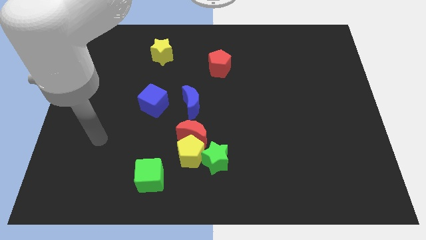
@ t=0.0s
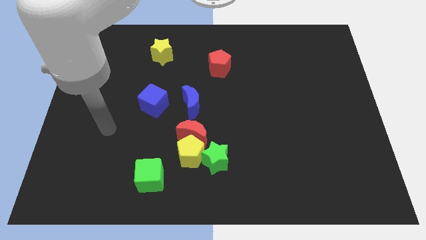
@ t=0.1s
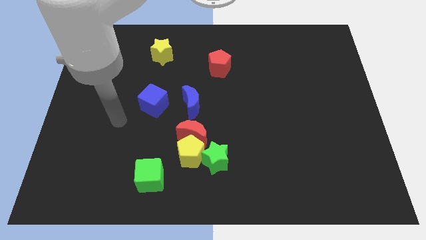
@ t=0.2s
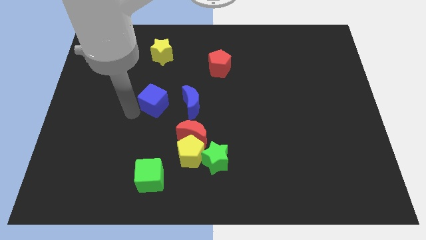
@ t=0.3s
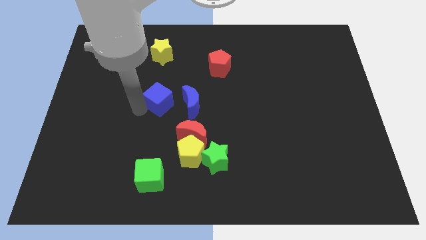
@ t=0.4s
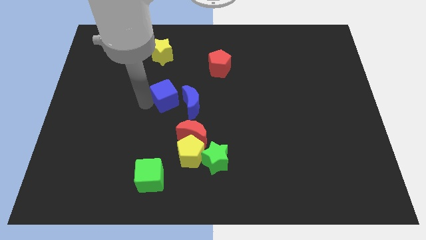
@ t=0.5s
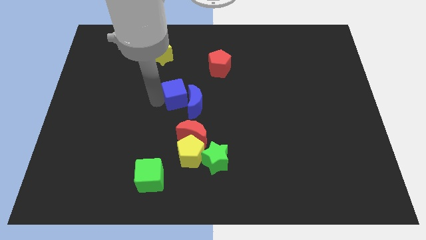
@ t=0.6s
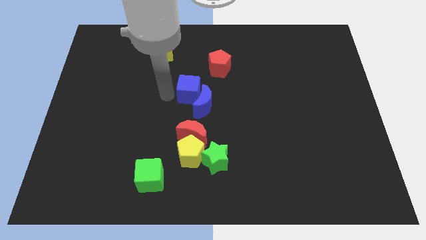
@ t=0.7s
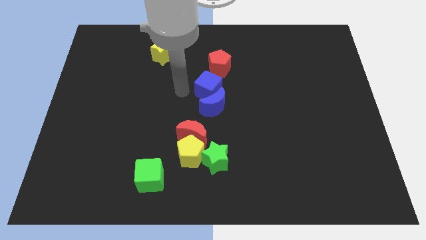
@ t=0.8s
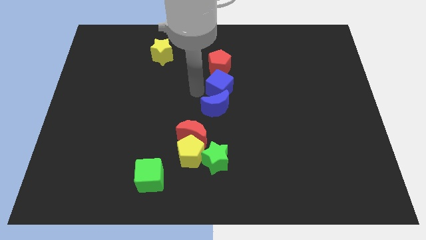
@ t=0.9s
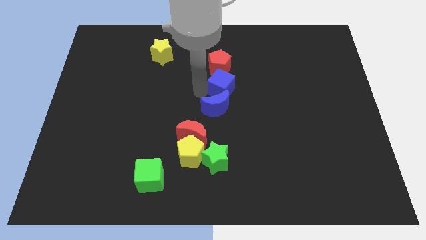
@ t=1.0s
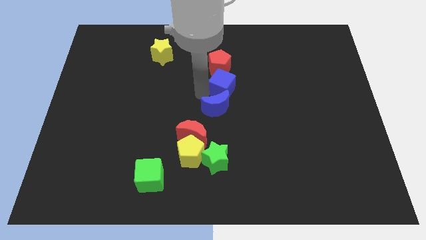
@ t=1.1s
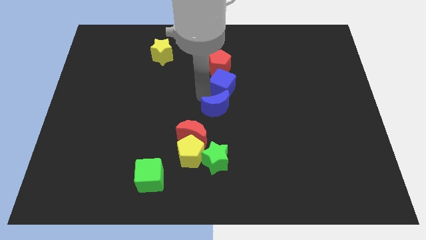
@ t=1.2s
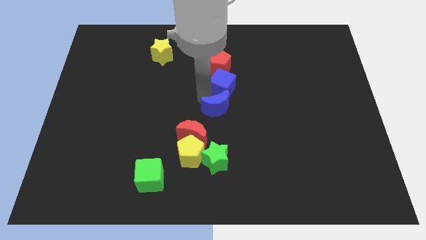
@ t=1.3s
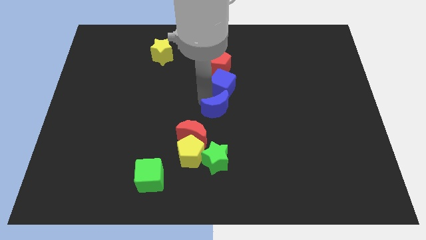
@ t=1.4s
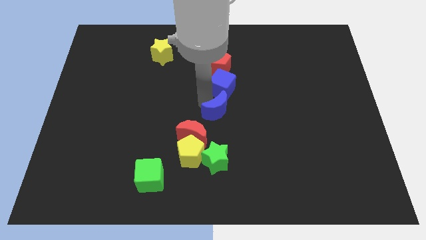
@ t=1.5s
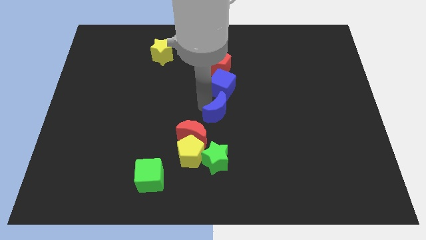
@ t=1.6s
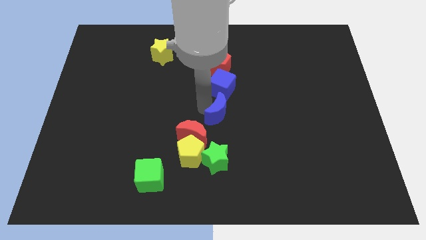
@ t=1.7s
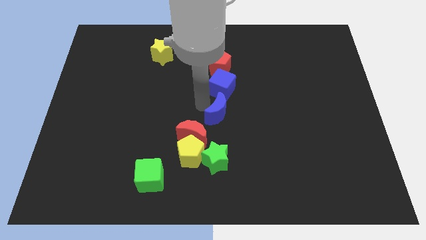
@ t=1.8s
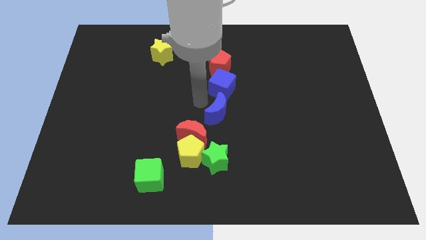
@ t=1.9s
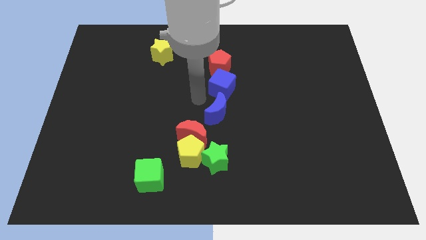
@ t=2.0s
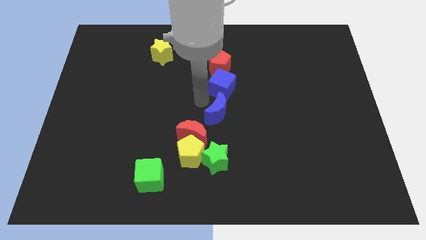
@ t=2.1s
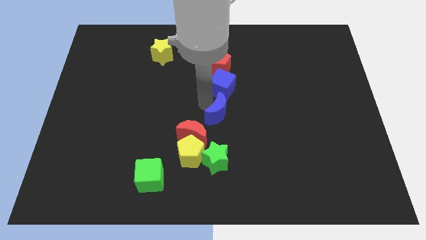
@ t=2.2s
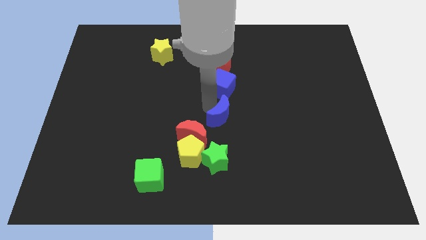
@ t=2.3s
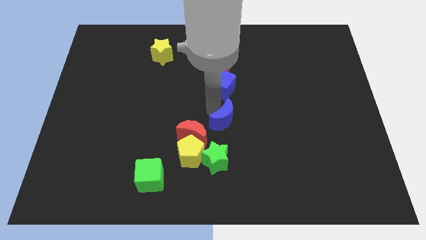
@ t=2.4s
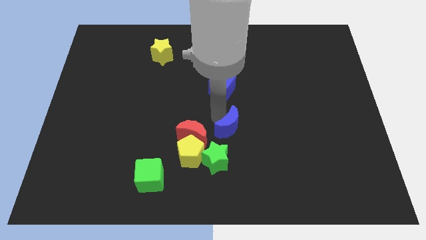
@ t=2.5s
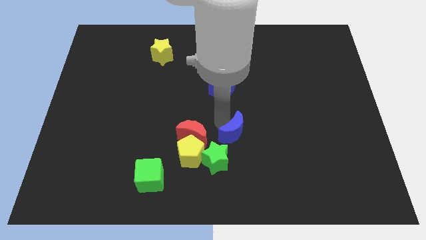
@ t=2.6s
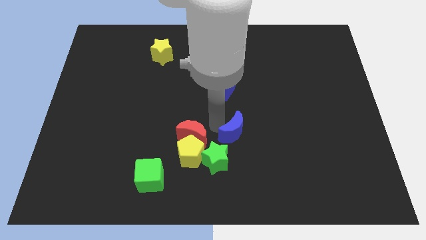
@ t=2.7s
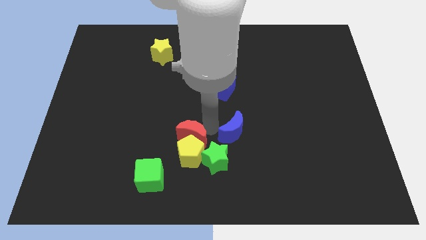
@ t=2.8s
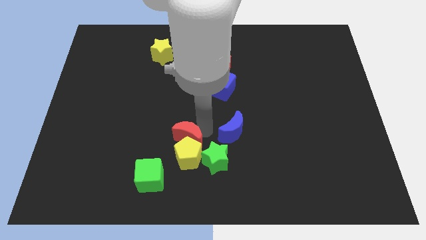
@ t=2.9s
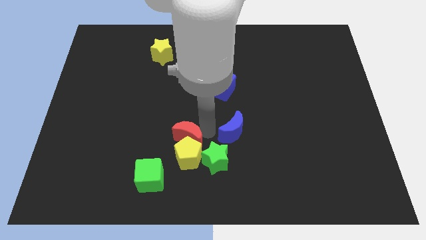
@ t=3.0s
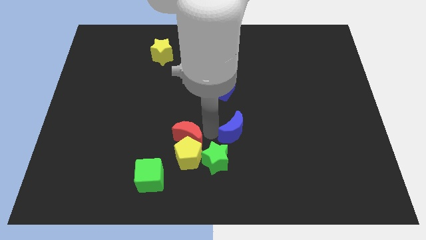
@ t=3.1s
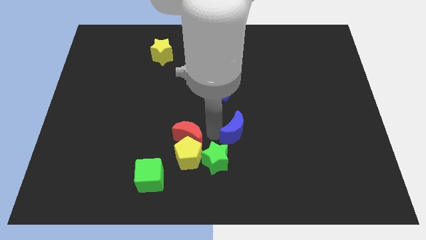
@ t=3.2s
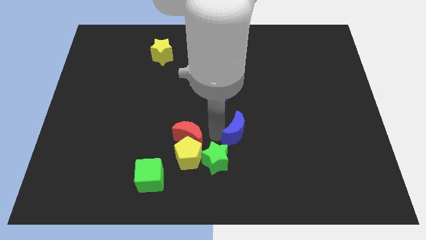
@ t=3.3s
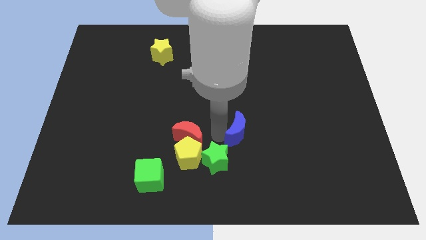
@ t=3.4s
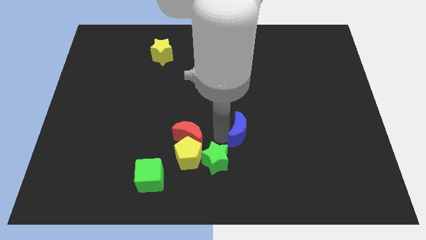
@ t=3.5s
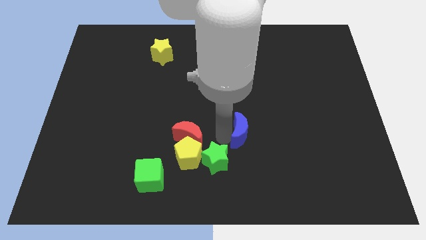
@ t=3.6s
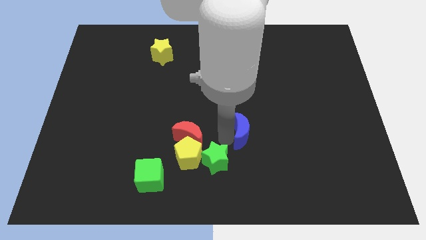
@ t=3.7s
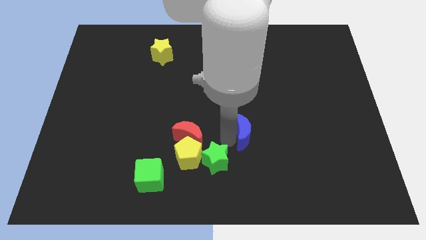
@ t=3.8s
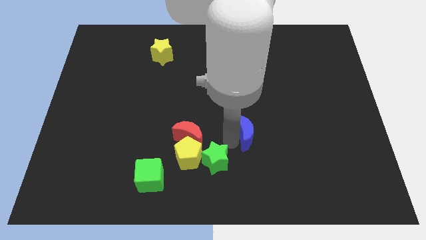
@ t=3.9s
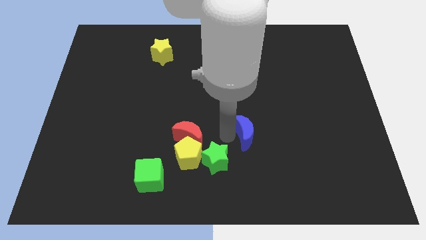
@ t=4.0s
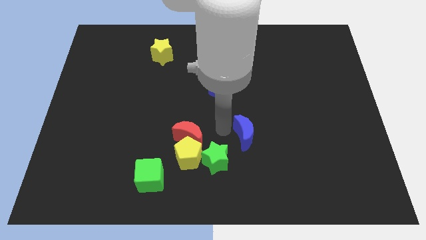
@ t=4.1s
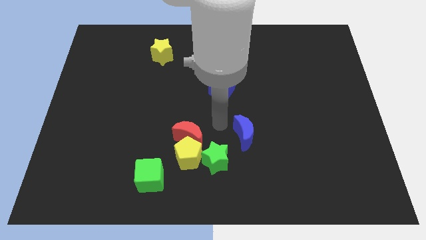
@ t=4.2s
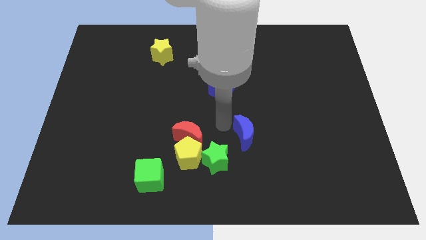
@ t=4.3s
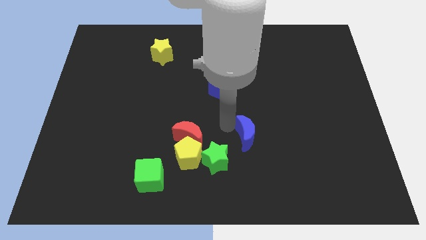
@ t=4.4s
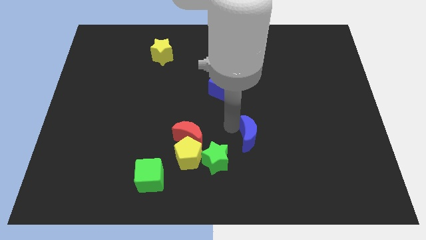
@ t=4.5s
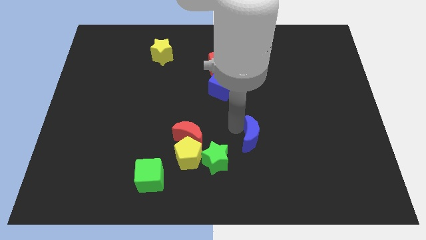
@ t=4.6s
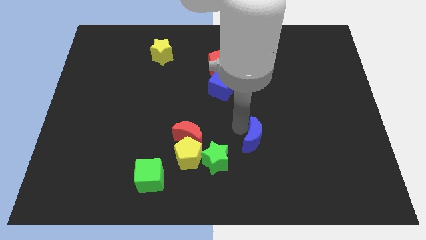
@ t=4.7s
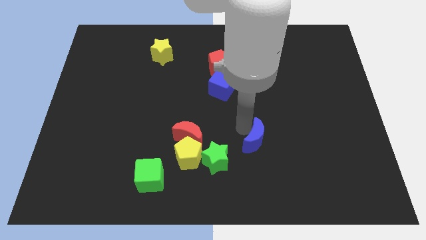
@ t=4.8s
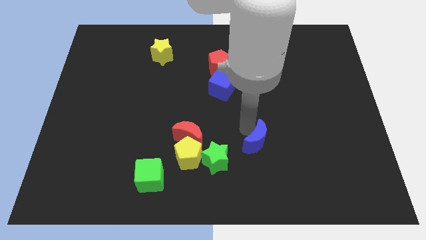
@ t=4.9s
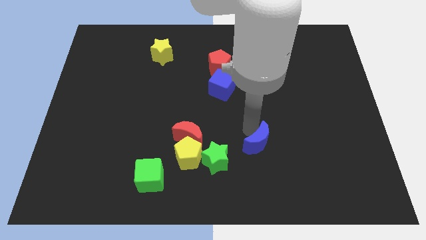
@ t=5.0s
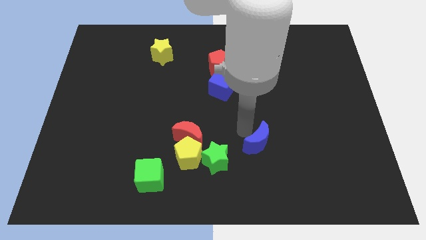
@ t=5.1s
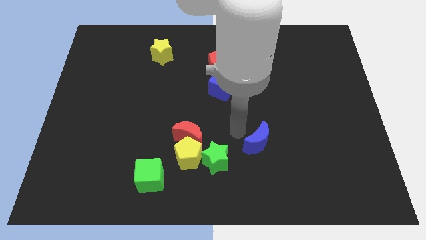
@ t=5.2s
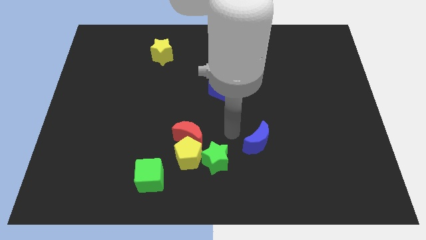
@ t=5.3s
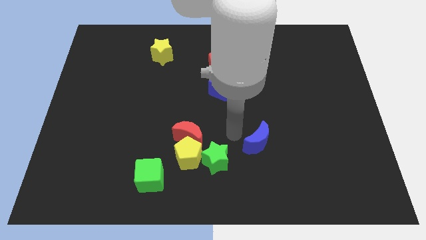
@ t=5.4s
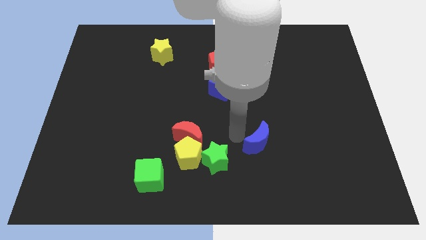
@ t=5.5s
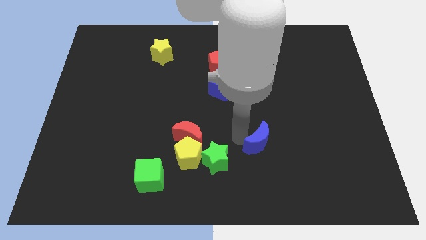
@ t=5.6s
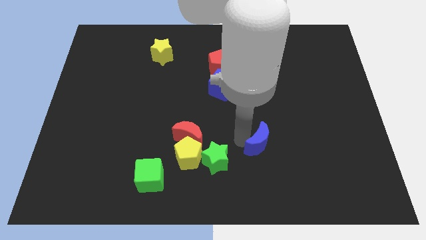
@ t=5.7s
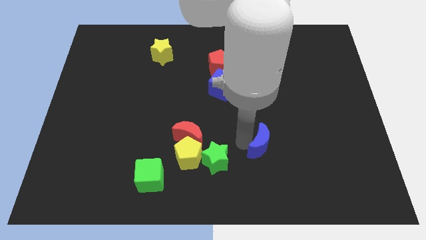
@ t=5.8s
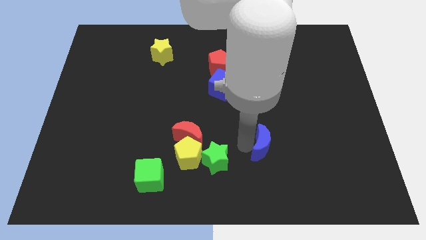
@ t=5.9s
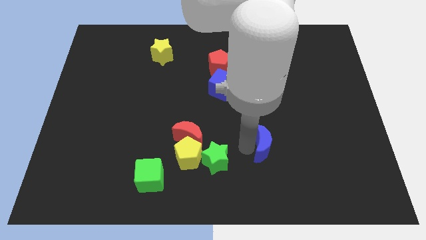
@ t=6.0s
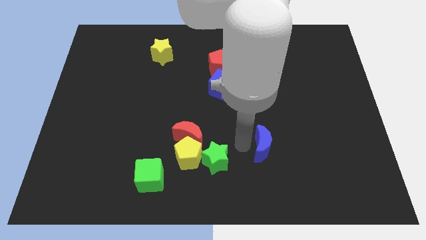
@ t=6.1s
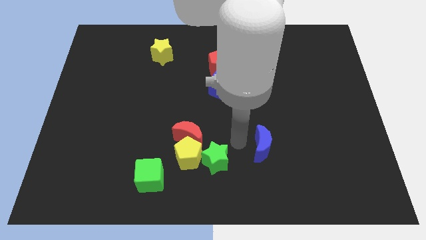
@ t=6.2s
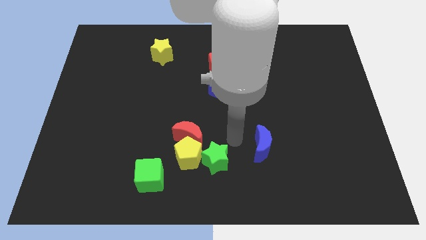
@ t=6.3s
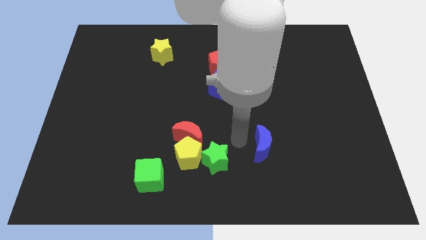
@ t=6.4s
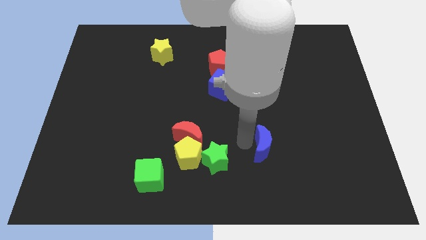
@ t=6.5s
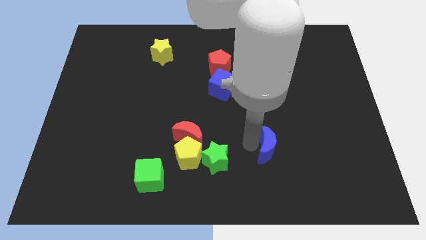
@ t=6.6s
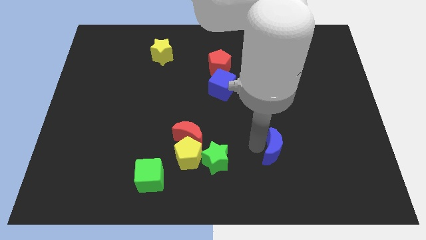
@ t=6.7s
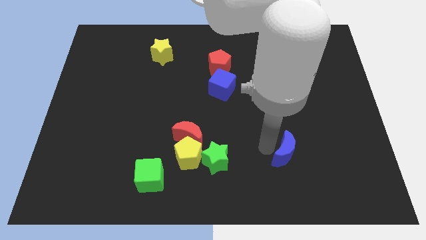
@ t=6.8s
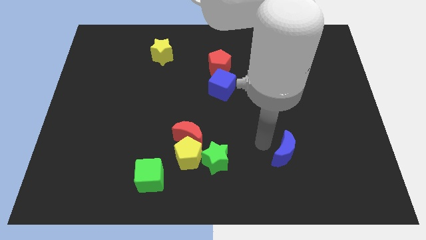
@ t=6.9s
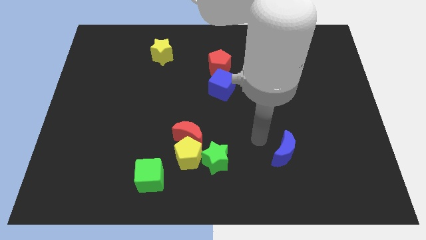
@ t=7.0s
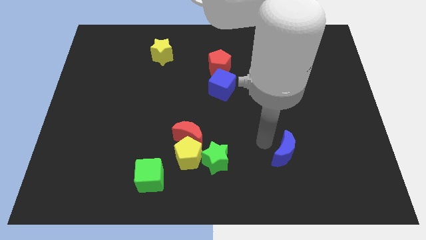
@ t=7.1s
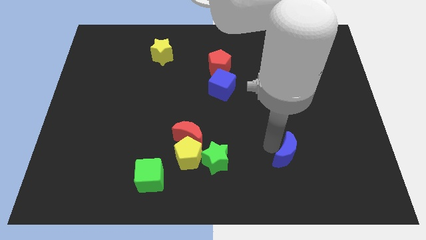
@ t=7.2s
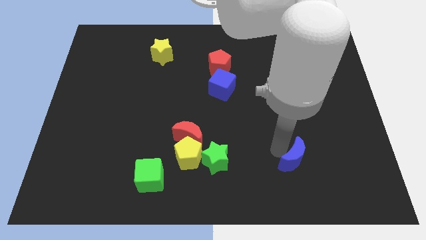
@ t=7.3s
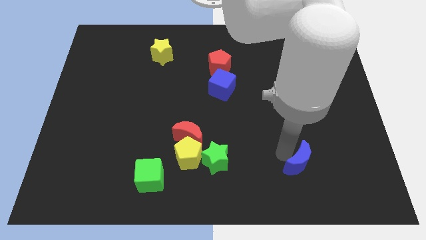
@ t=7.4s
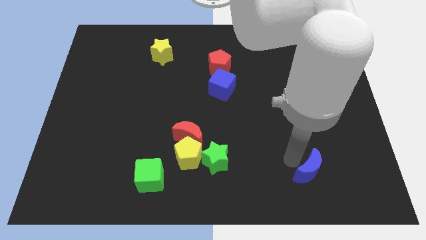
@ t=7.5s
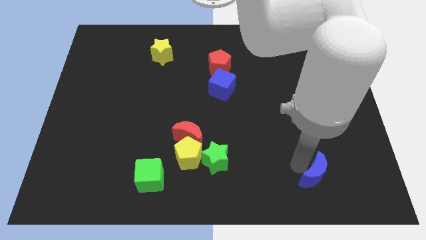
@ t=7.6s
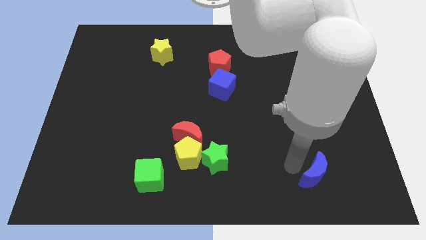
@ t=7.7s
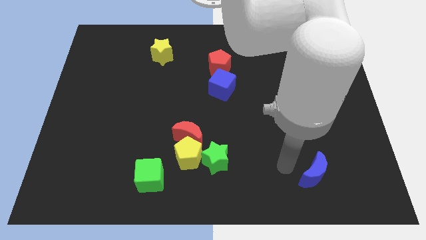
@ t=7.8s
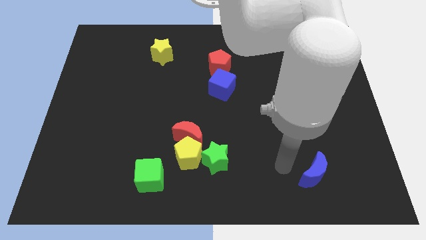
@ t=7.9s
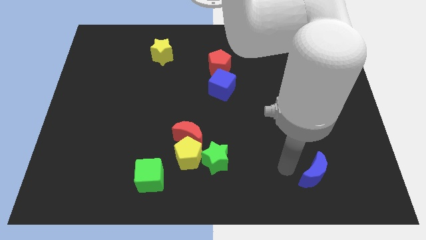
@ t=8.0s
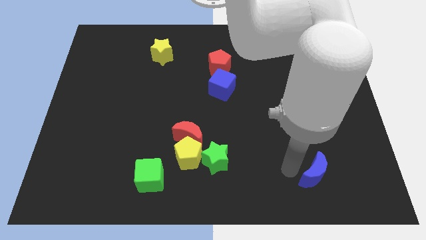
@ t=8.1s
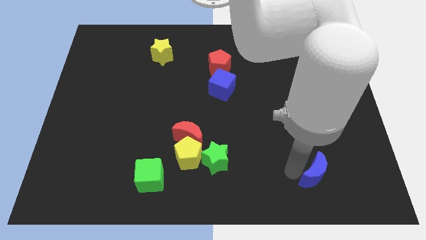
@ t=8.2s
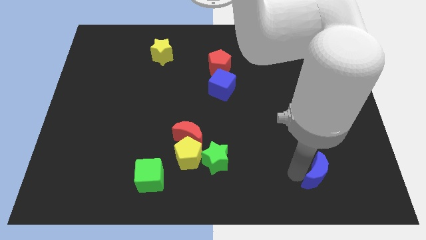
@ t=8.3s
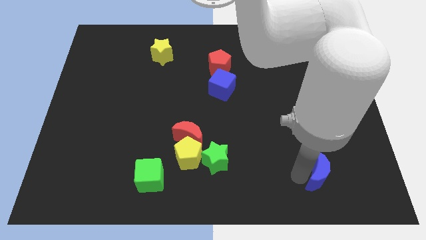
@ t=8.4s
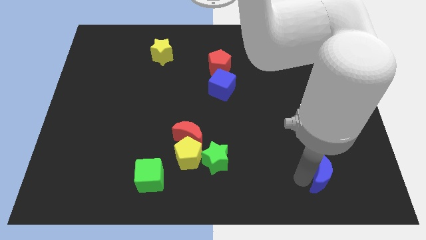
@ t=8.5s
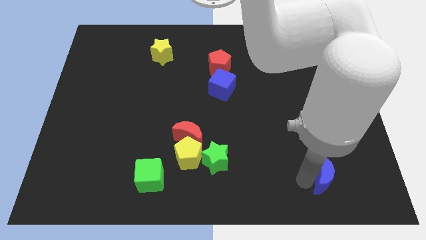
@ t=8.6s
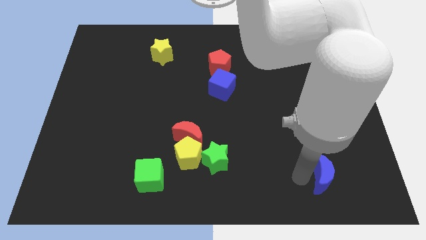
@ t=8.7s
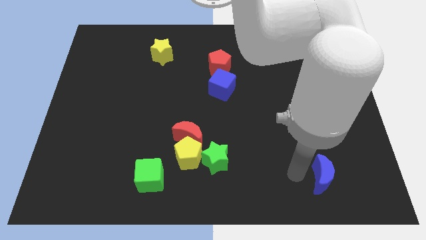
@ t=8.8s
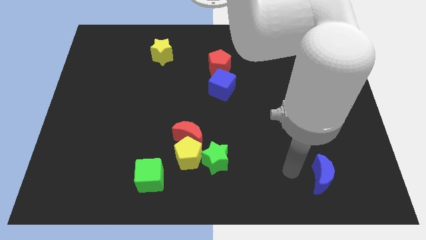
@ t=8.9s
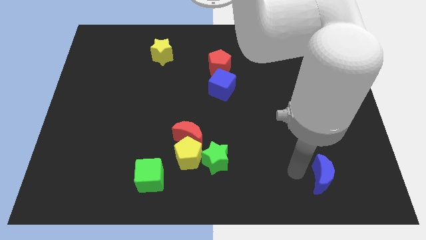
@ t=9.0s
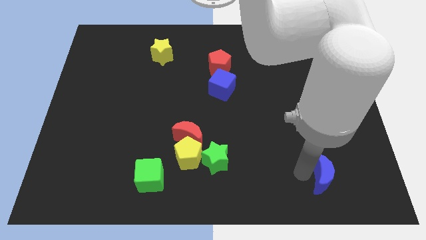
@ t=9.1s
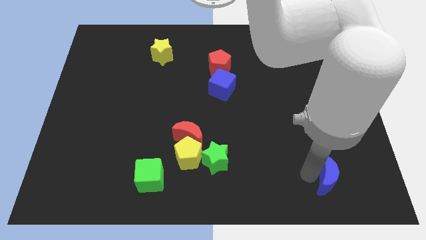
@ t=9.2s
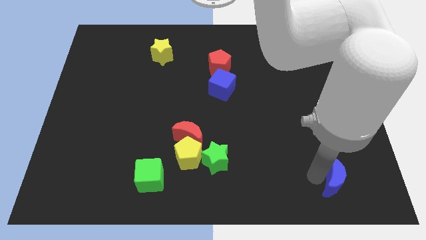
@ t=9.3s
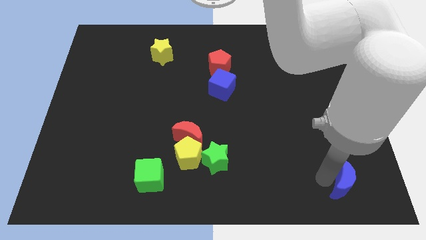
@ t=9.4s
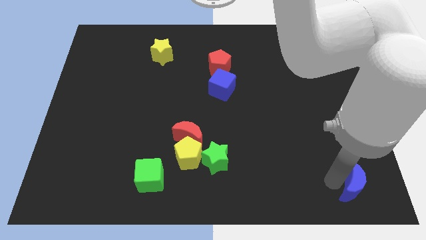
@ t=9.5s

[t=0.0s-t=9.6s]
slide the blue moon to the bottom right
